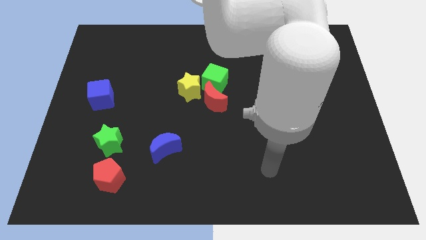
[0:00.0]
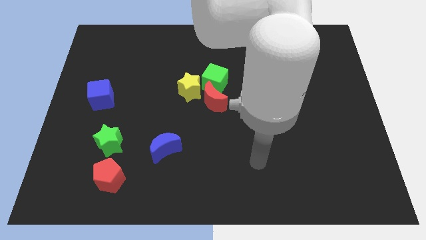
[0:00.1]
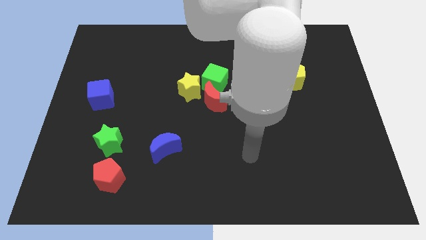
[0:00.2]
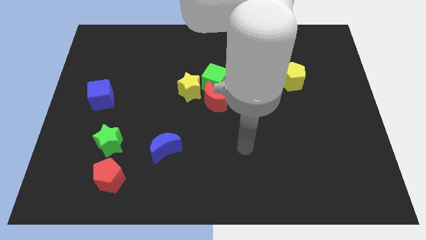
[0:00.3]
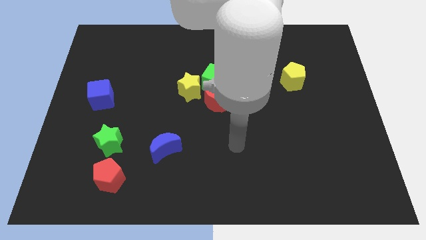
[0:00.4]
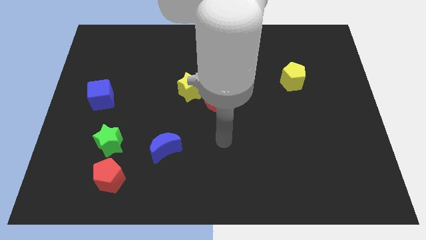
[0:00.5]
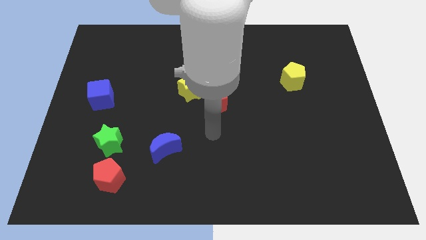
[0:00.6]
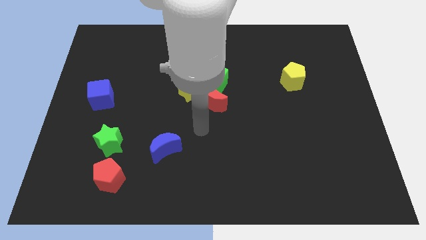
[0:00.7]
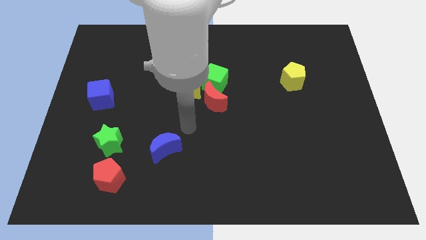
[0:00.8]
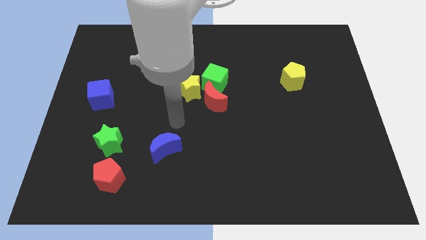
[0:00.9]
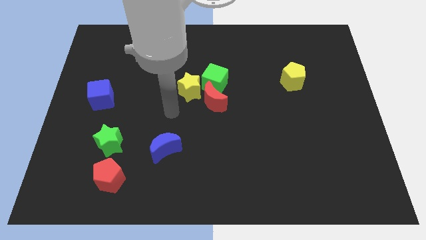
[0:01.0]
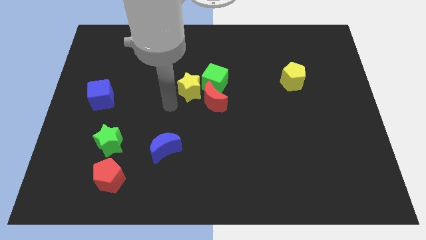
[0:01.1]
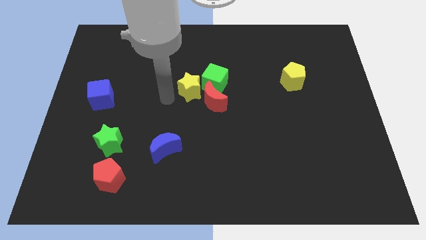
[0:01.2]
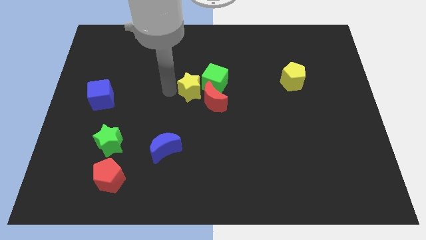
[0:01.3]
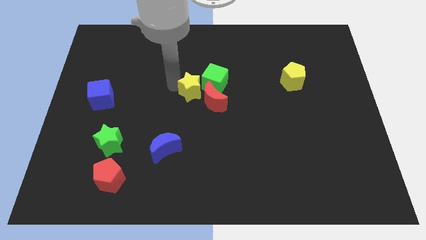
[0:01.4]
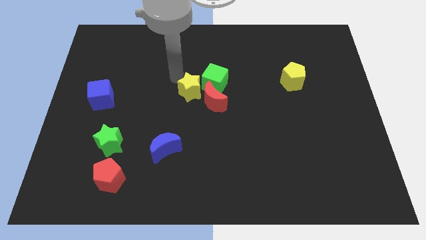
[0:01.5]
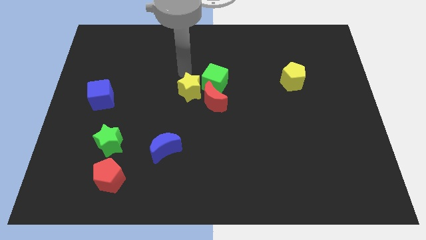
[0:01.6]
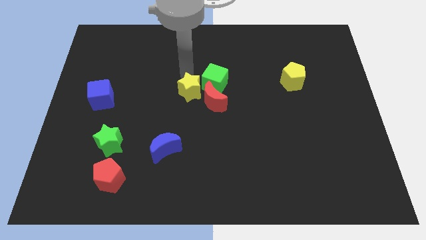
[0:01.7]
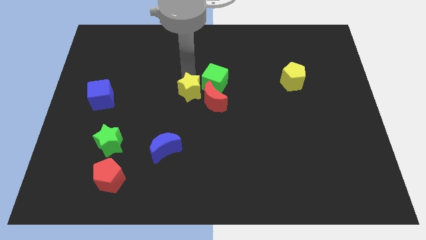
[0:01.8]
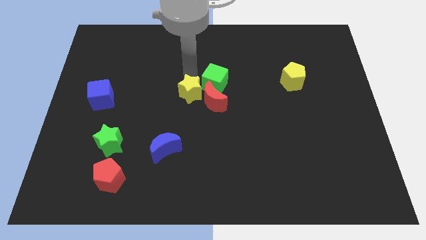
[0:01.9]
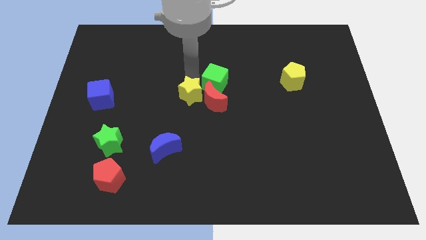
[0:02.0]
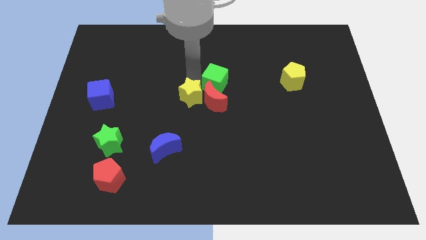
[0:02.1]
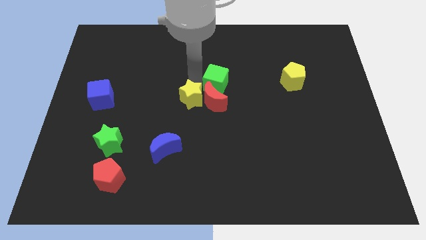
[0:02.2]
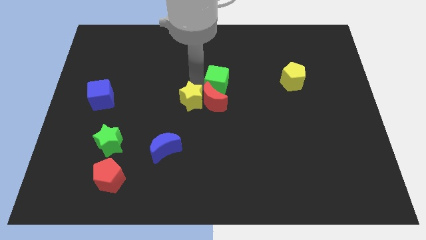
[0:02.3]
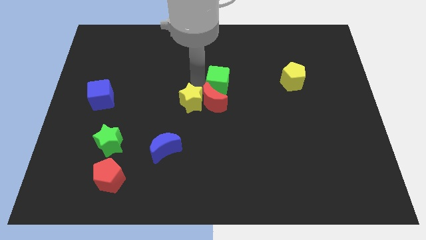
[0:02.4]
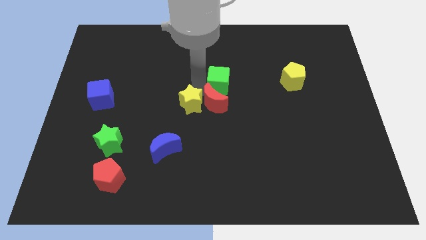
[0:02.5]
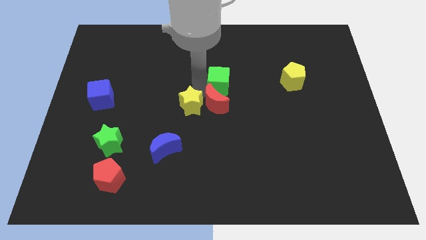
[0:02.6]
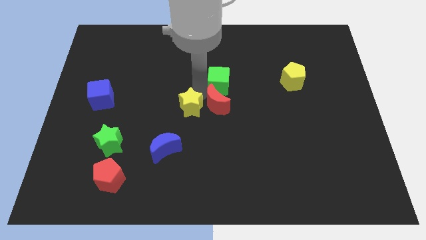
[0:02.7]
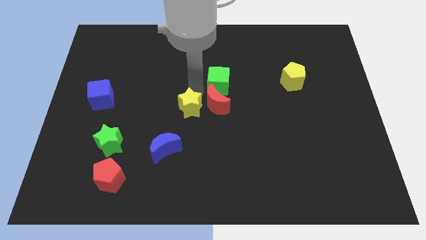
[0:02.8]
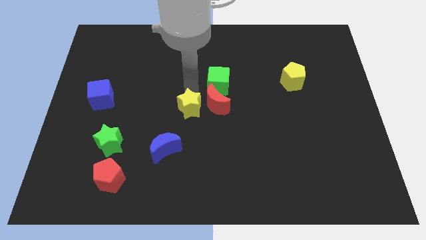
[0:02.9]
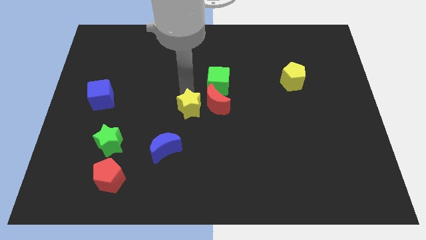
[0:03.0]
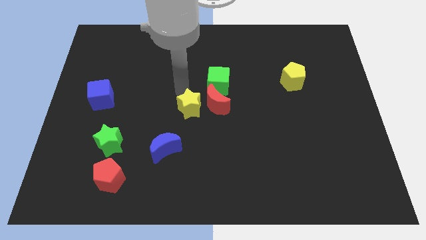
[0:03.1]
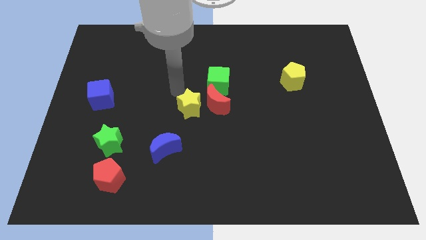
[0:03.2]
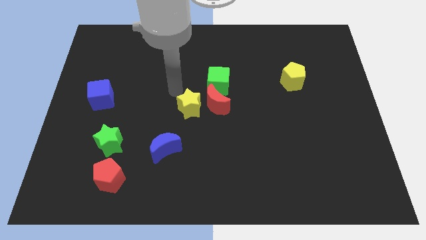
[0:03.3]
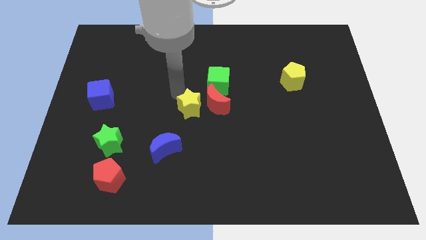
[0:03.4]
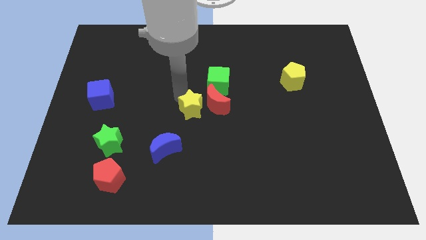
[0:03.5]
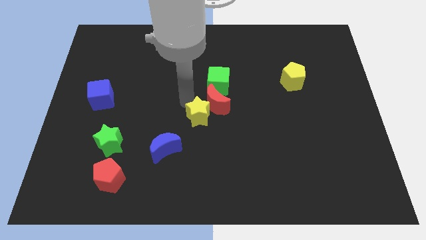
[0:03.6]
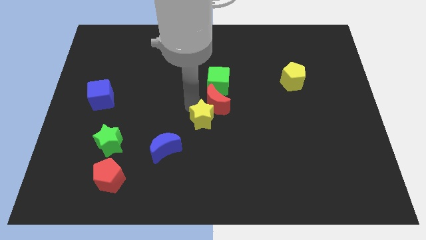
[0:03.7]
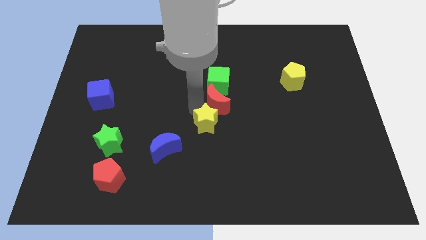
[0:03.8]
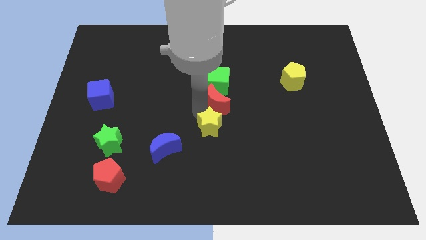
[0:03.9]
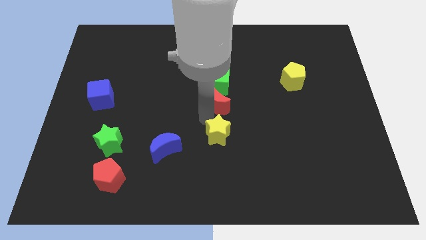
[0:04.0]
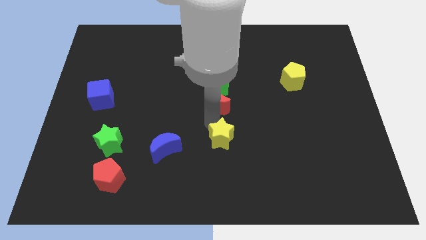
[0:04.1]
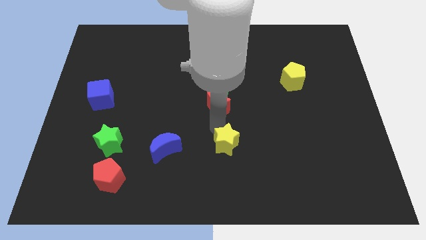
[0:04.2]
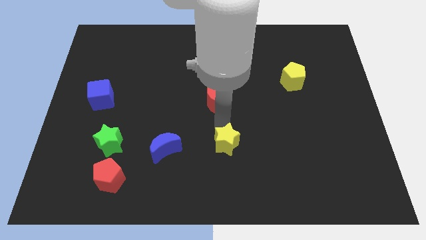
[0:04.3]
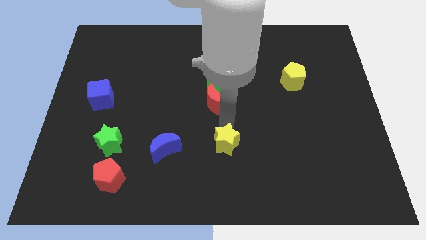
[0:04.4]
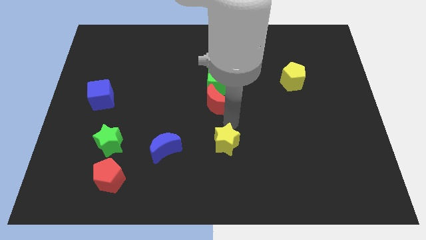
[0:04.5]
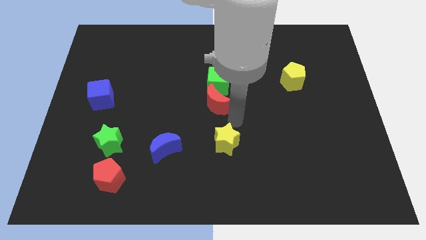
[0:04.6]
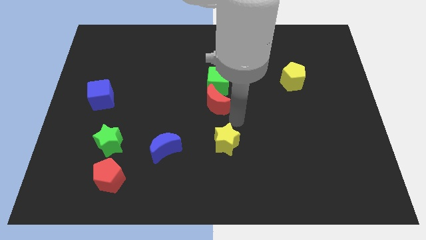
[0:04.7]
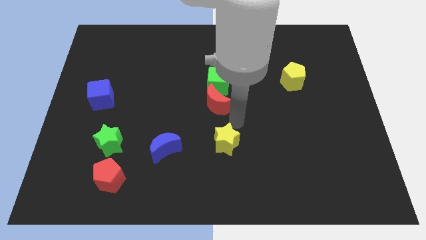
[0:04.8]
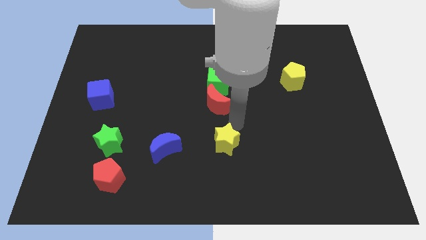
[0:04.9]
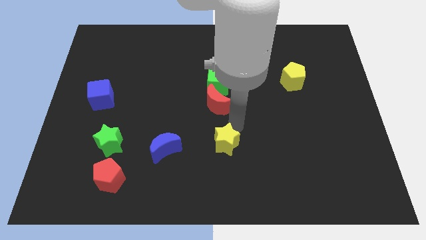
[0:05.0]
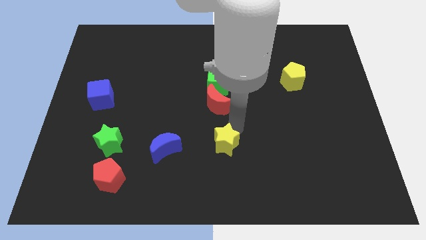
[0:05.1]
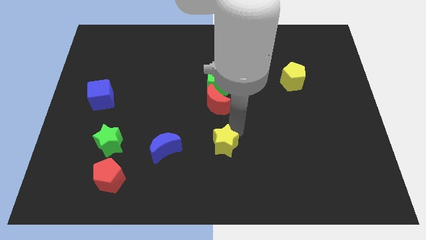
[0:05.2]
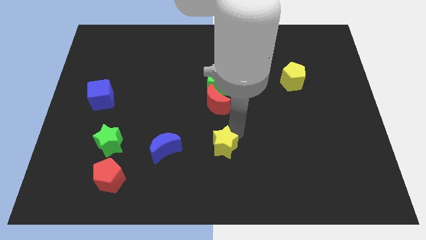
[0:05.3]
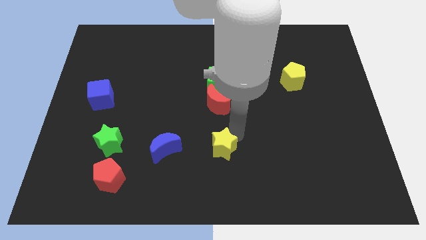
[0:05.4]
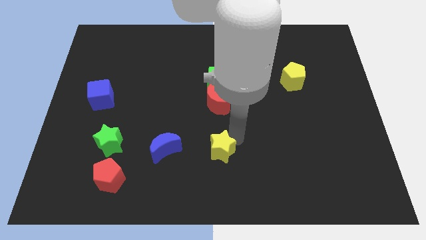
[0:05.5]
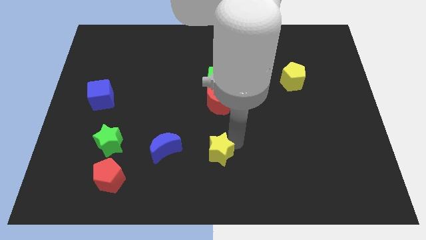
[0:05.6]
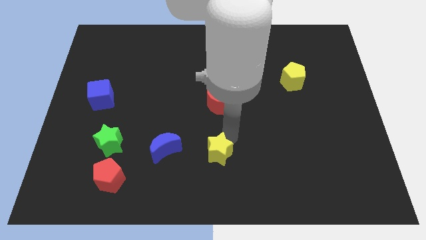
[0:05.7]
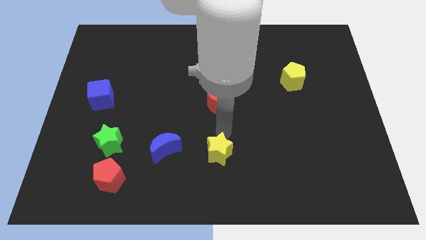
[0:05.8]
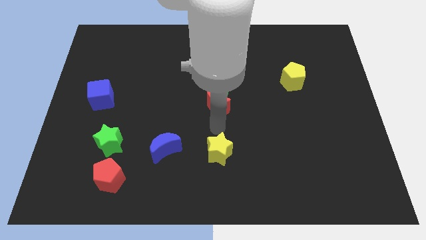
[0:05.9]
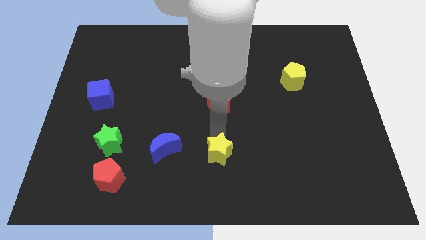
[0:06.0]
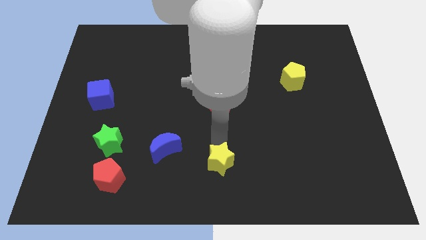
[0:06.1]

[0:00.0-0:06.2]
slide the yellow star to the bottom

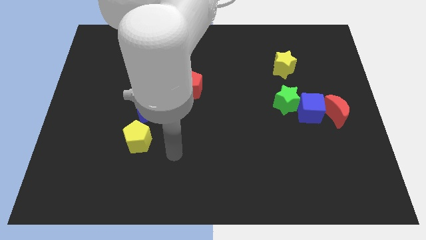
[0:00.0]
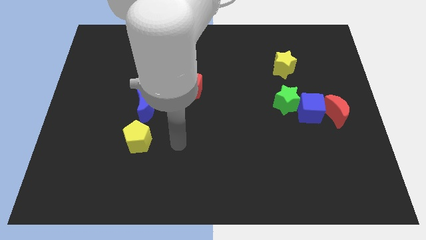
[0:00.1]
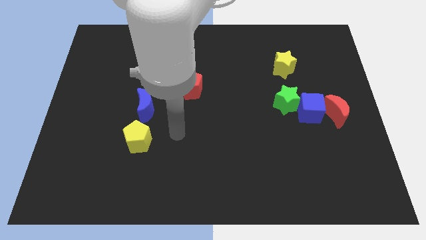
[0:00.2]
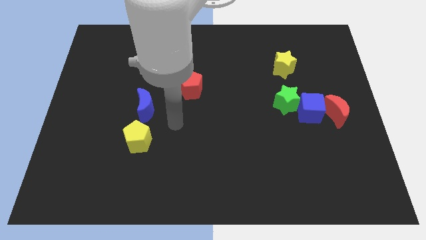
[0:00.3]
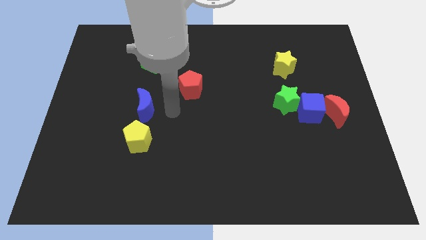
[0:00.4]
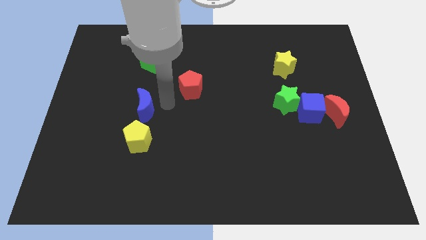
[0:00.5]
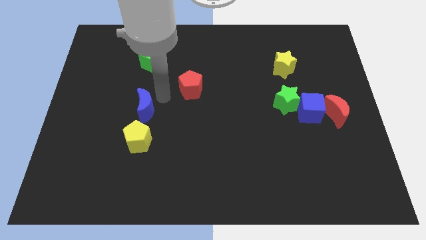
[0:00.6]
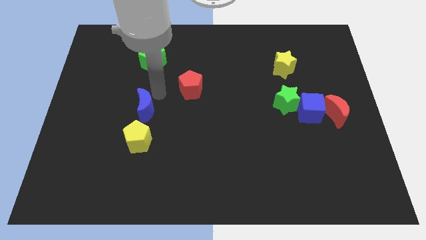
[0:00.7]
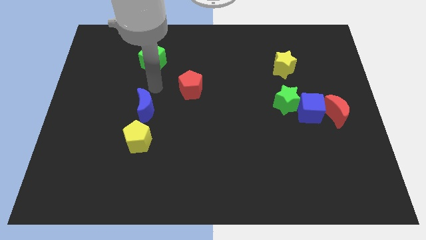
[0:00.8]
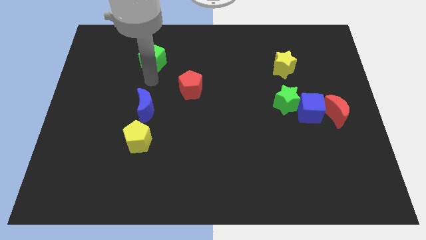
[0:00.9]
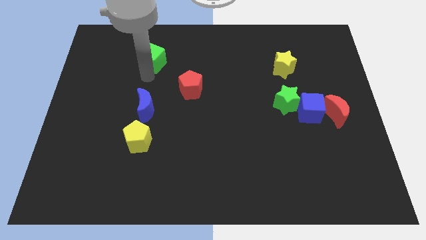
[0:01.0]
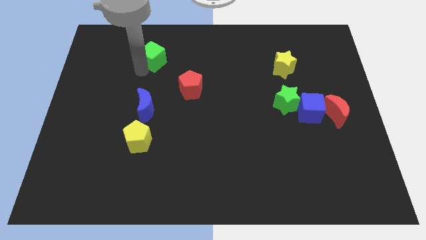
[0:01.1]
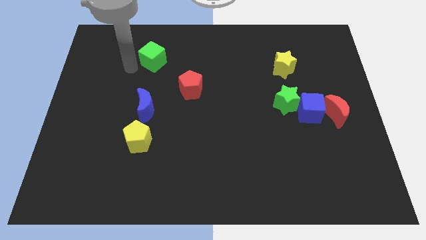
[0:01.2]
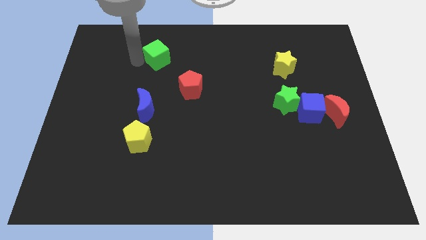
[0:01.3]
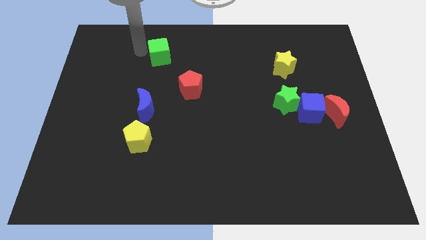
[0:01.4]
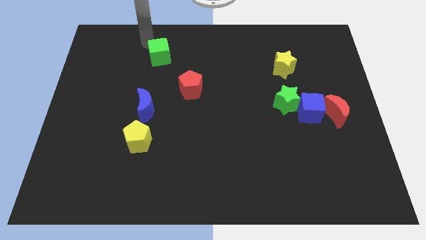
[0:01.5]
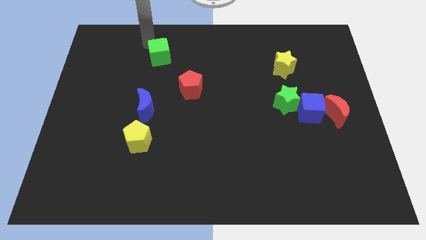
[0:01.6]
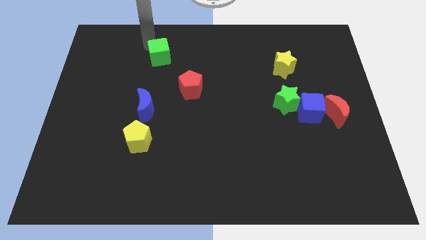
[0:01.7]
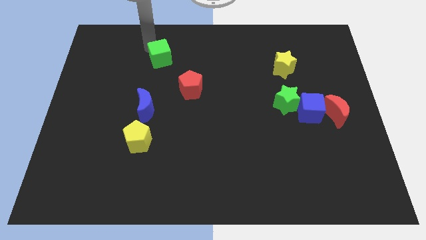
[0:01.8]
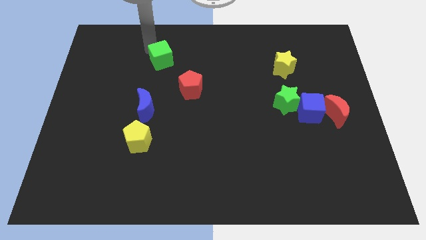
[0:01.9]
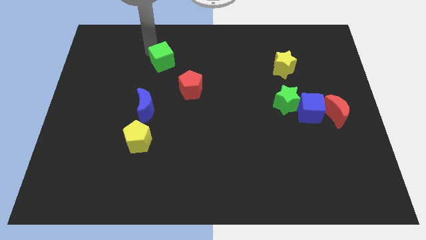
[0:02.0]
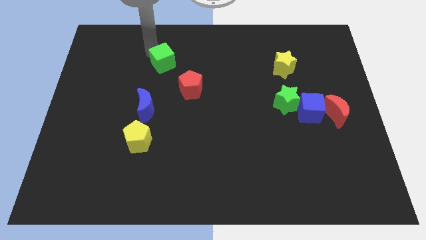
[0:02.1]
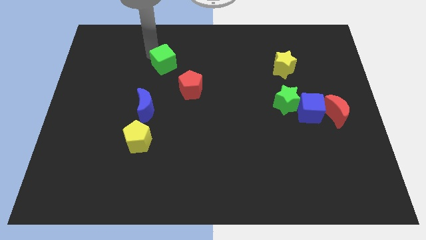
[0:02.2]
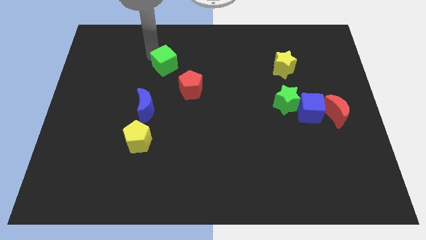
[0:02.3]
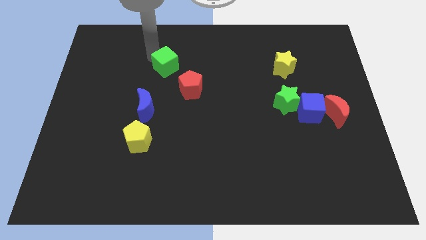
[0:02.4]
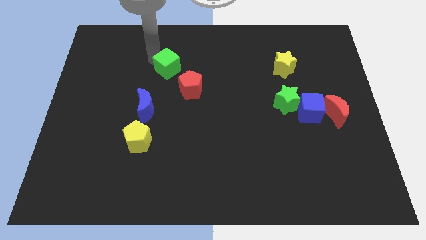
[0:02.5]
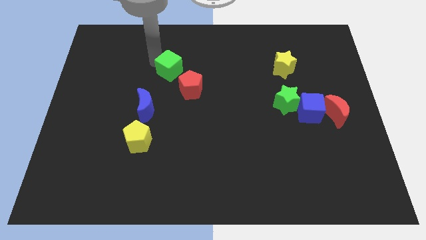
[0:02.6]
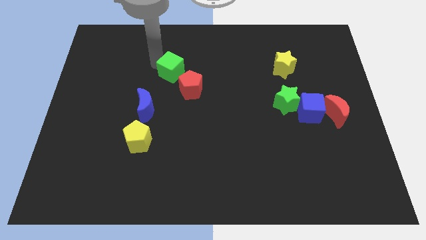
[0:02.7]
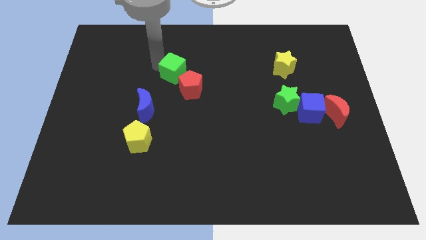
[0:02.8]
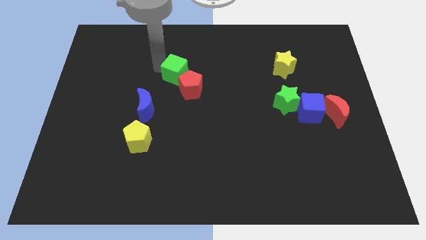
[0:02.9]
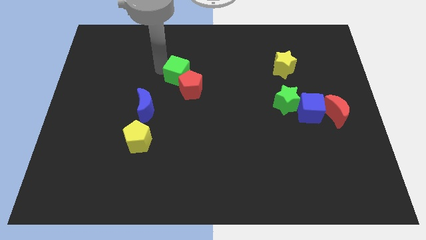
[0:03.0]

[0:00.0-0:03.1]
slide the green cube to the middle of the board
